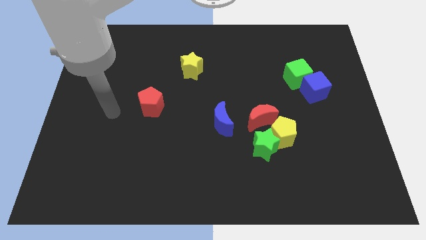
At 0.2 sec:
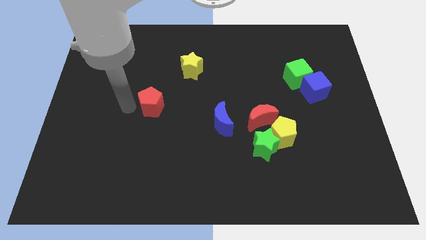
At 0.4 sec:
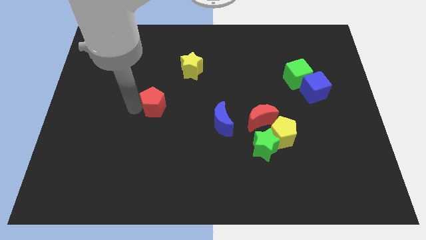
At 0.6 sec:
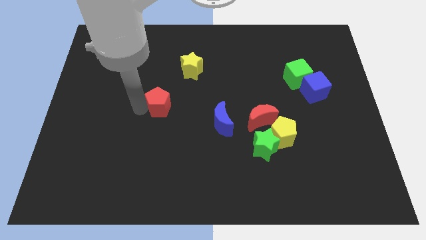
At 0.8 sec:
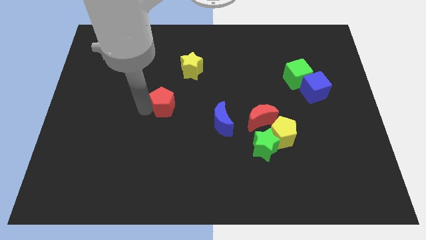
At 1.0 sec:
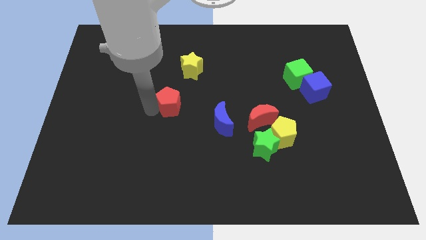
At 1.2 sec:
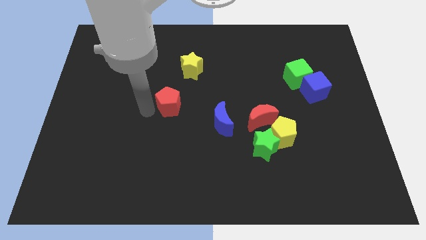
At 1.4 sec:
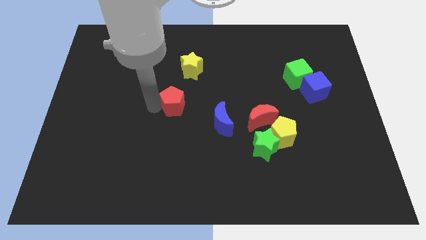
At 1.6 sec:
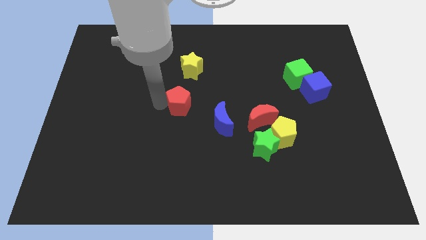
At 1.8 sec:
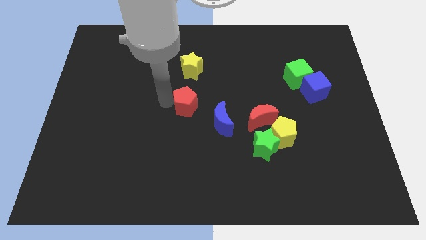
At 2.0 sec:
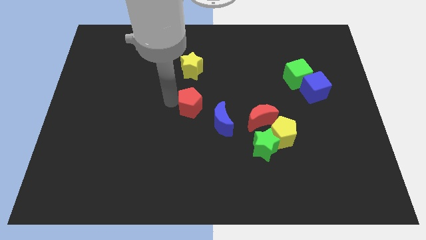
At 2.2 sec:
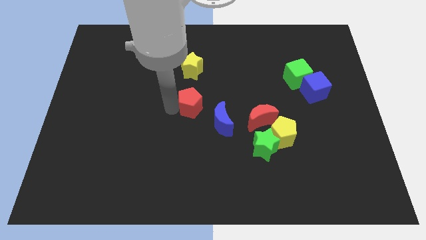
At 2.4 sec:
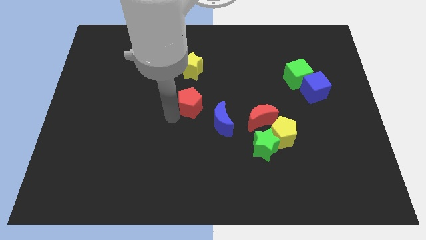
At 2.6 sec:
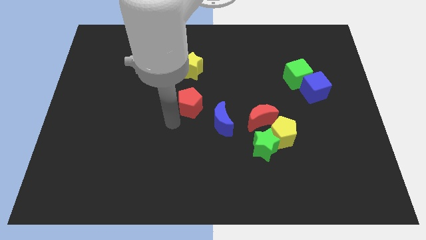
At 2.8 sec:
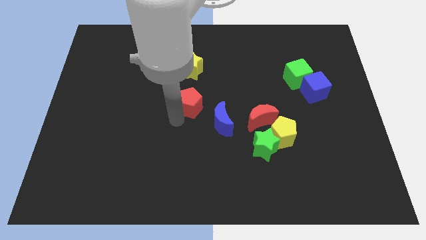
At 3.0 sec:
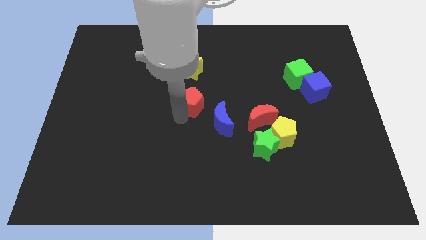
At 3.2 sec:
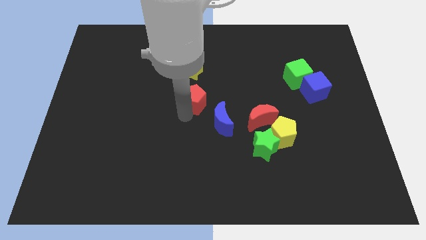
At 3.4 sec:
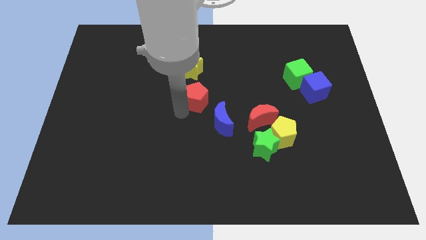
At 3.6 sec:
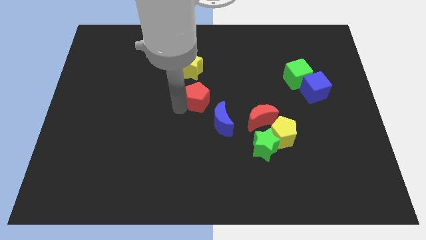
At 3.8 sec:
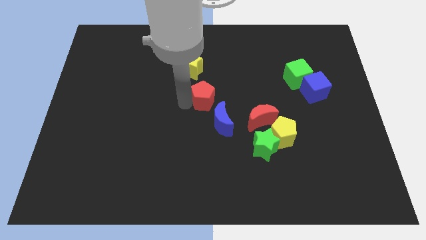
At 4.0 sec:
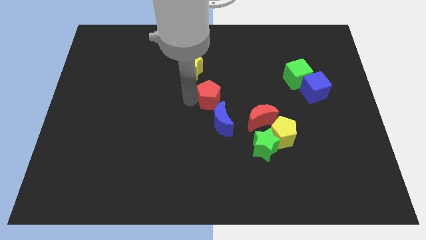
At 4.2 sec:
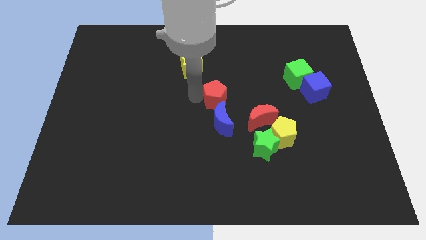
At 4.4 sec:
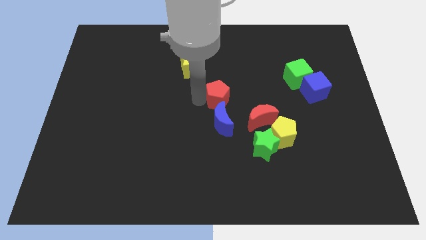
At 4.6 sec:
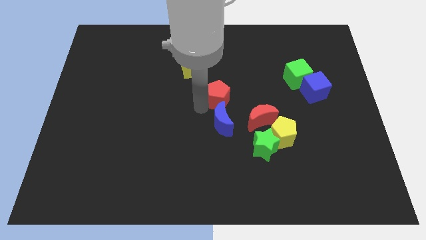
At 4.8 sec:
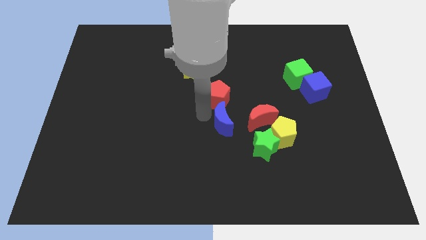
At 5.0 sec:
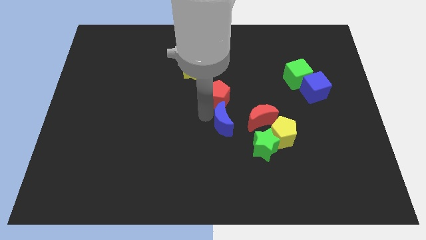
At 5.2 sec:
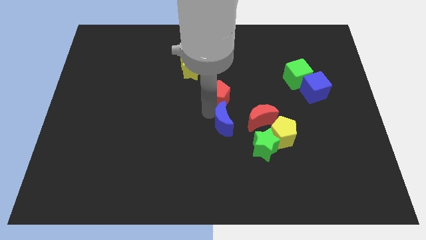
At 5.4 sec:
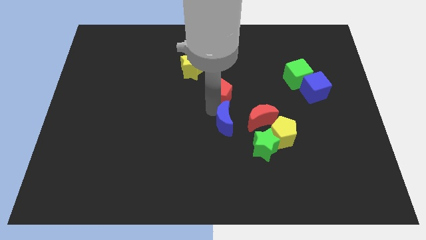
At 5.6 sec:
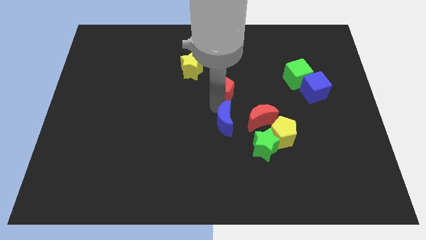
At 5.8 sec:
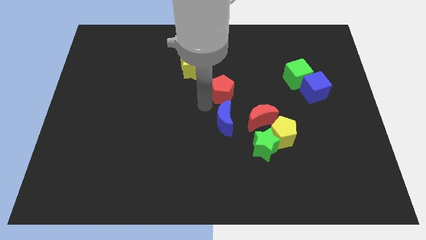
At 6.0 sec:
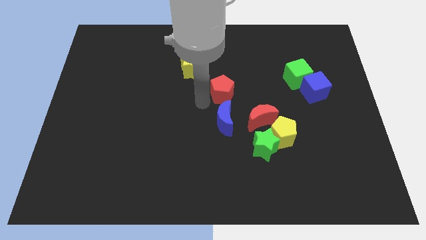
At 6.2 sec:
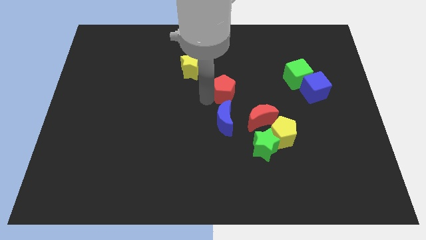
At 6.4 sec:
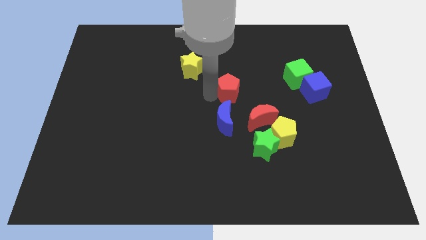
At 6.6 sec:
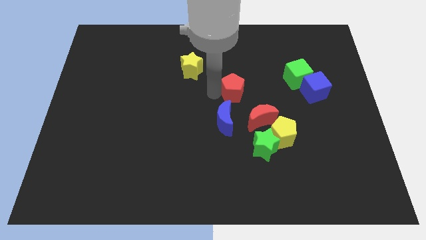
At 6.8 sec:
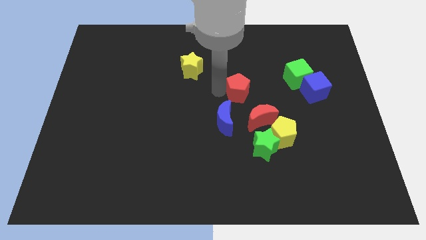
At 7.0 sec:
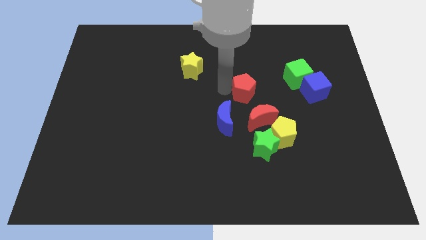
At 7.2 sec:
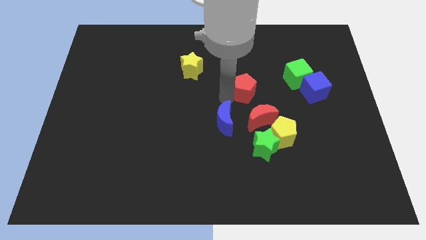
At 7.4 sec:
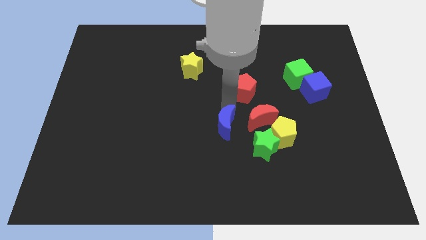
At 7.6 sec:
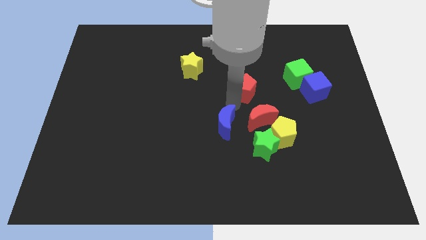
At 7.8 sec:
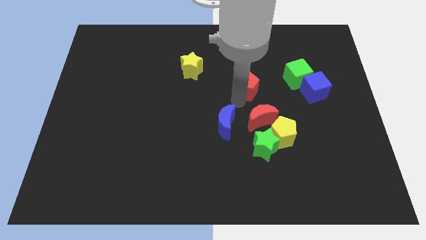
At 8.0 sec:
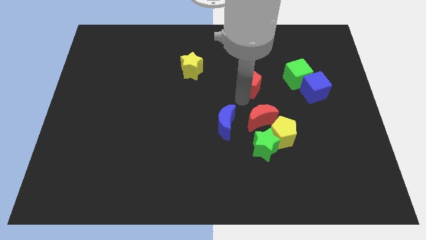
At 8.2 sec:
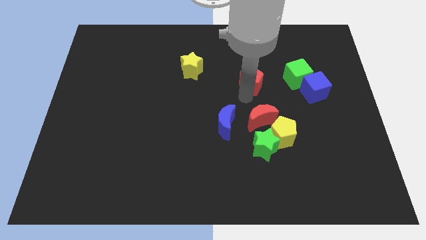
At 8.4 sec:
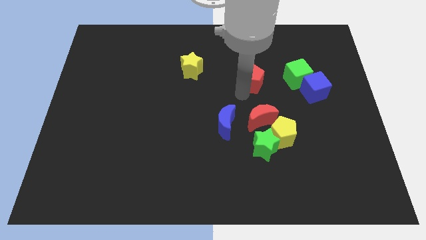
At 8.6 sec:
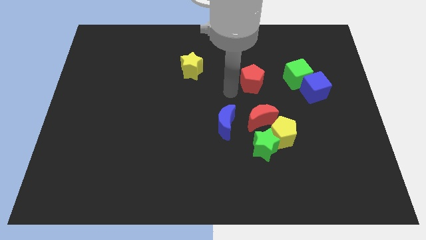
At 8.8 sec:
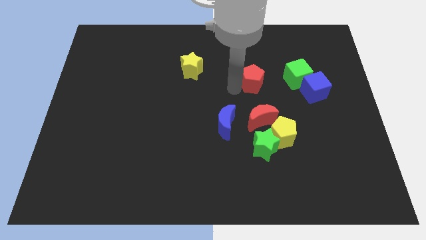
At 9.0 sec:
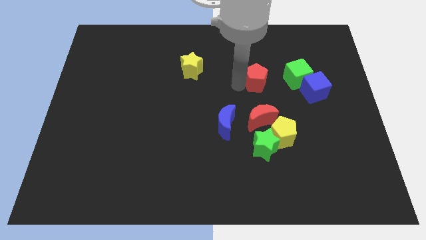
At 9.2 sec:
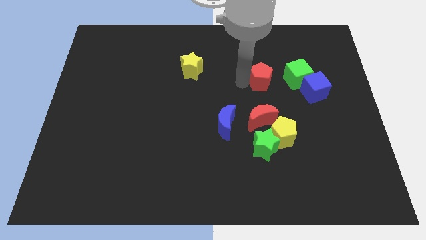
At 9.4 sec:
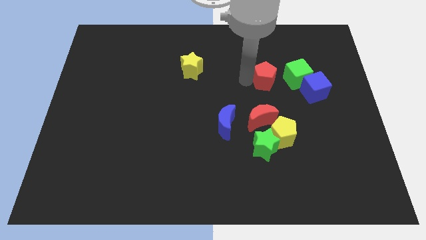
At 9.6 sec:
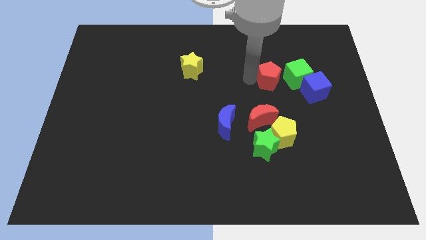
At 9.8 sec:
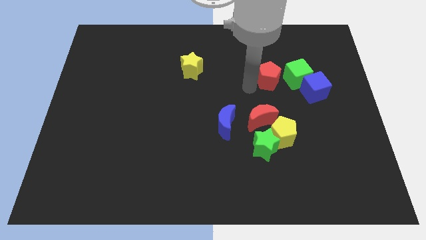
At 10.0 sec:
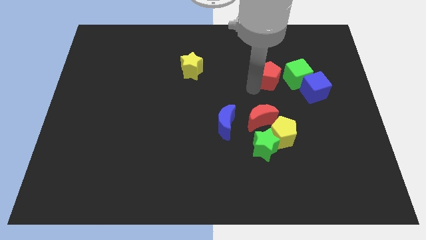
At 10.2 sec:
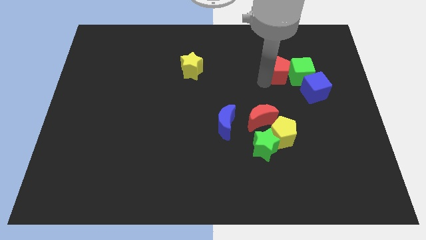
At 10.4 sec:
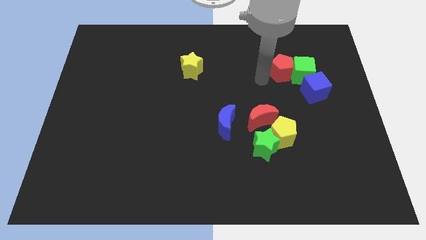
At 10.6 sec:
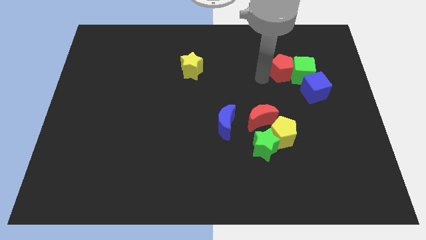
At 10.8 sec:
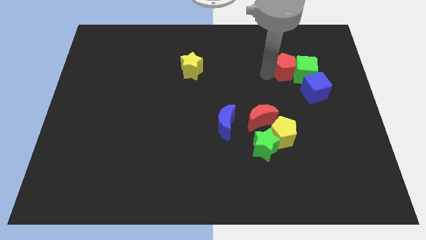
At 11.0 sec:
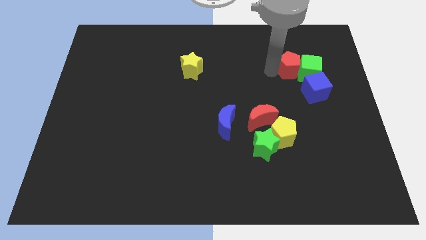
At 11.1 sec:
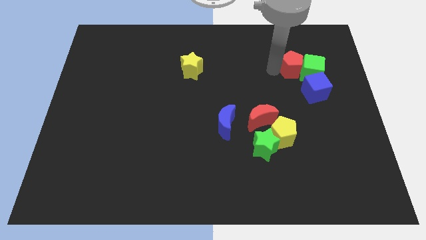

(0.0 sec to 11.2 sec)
move the red pentagon above the blue cube

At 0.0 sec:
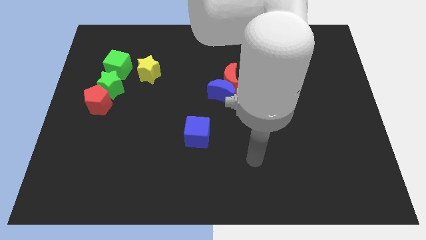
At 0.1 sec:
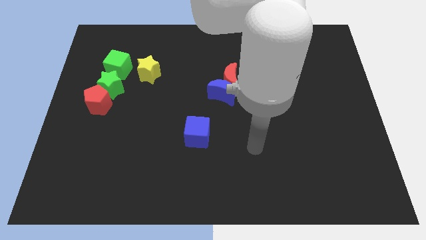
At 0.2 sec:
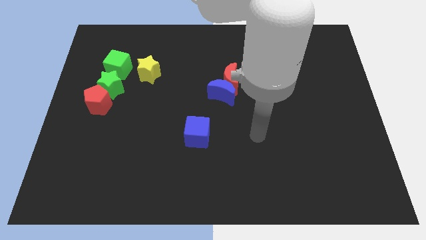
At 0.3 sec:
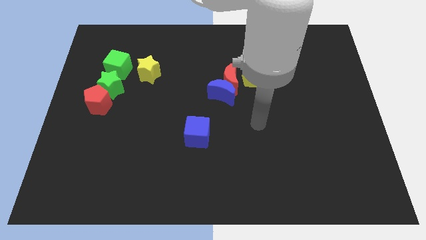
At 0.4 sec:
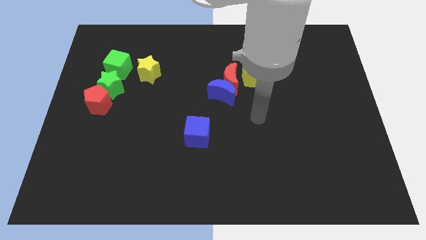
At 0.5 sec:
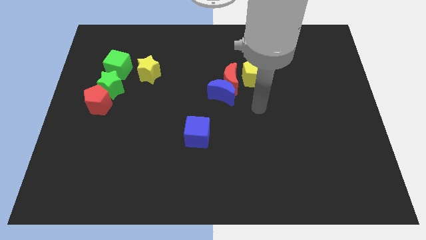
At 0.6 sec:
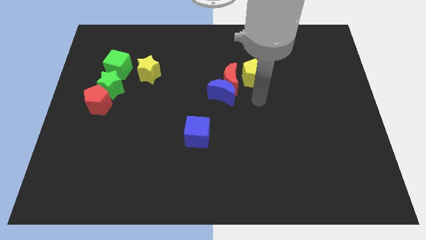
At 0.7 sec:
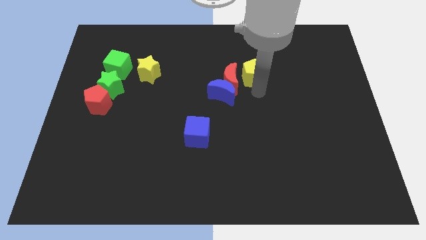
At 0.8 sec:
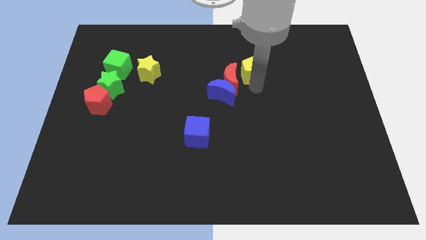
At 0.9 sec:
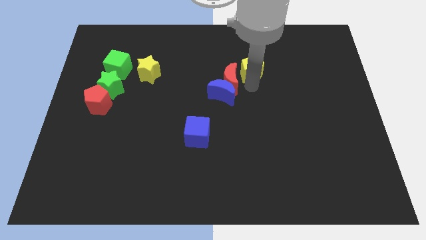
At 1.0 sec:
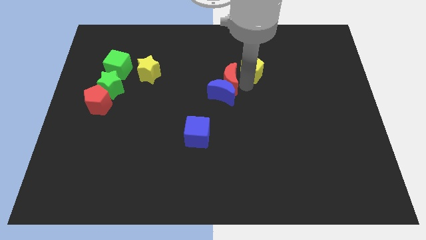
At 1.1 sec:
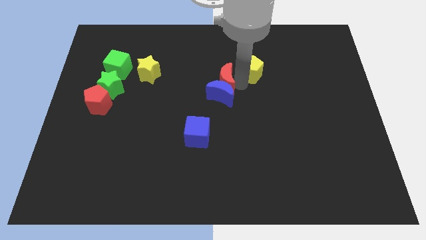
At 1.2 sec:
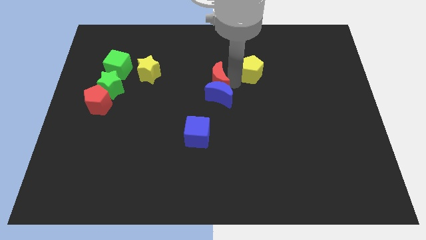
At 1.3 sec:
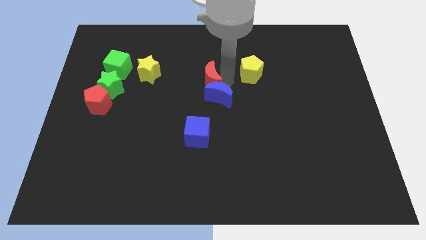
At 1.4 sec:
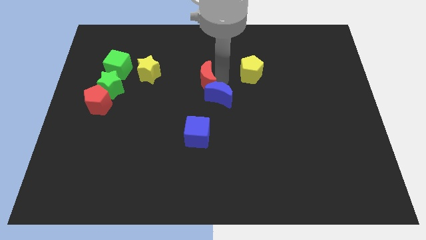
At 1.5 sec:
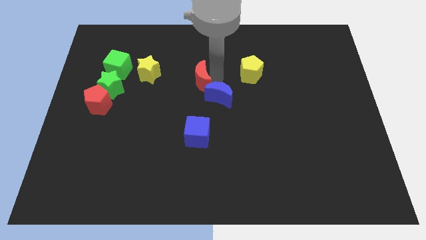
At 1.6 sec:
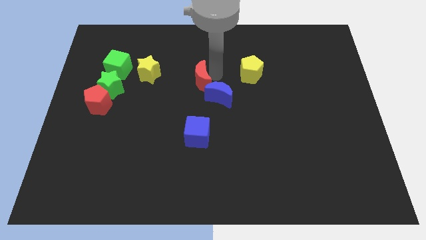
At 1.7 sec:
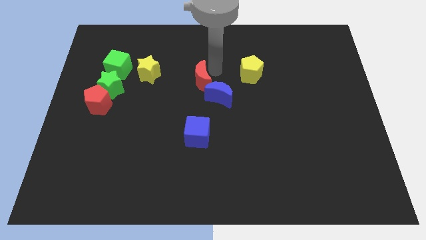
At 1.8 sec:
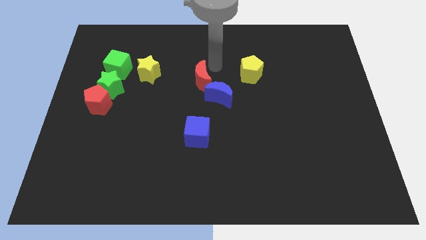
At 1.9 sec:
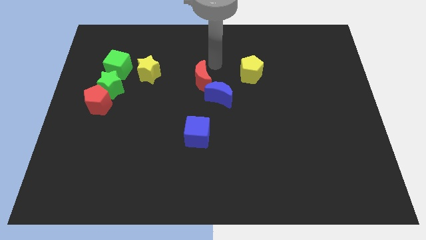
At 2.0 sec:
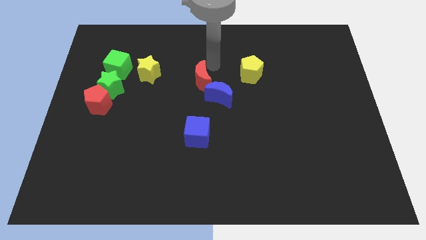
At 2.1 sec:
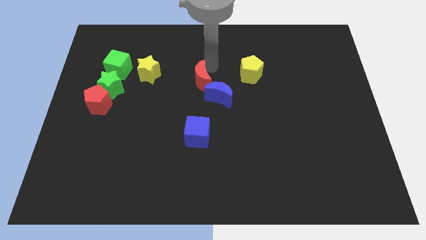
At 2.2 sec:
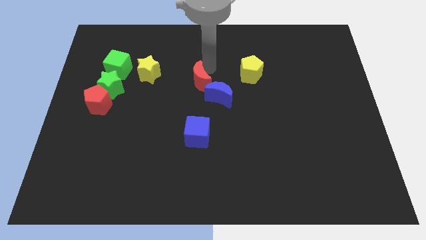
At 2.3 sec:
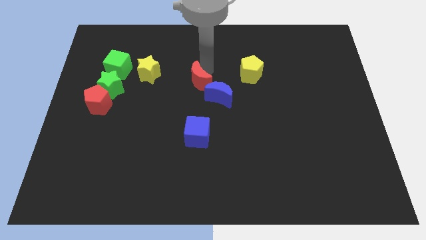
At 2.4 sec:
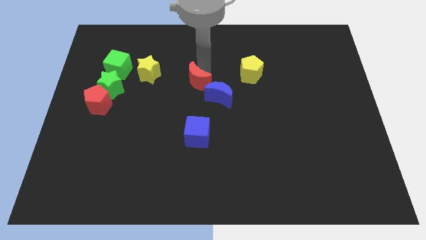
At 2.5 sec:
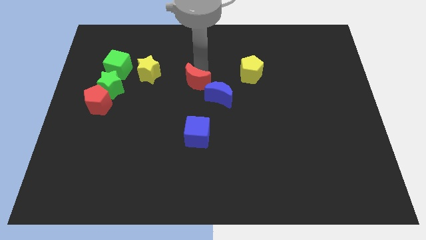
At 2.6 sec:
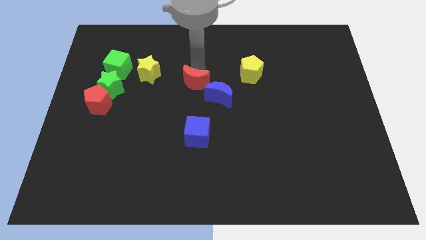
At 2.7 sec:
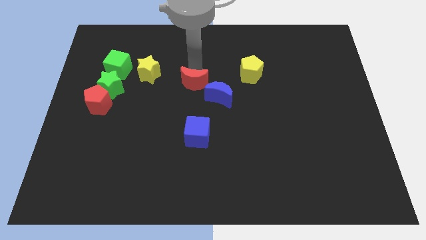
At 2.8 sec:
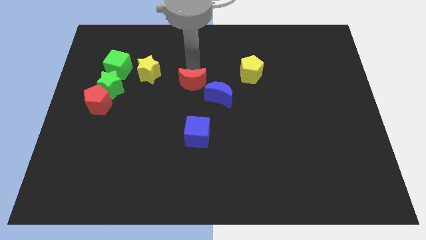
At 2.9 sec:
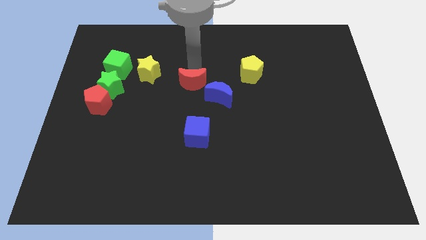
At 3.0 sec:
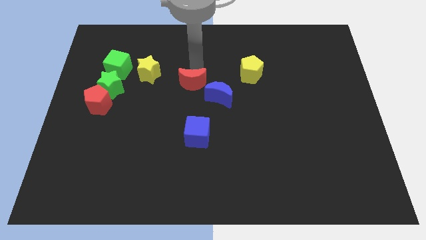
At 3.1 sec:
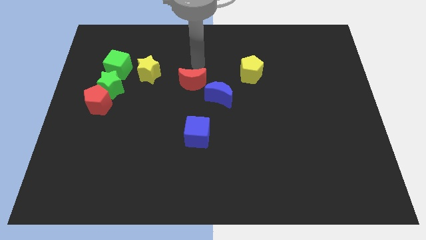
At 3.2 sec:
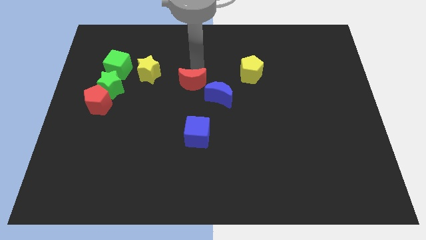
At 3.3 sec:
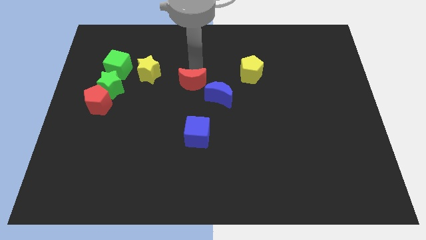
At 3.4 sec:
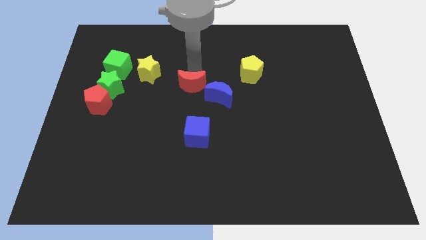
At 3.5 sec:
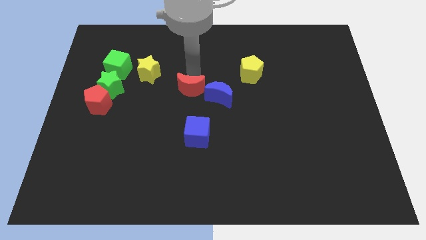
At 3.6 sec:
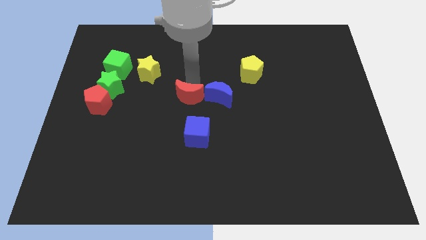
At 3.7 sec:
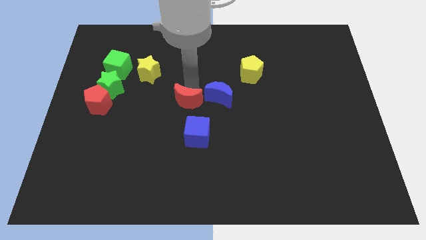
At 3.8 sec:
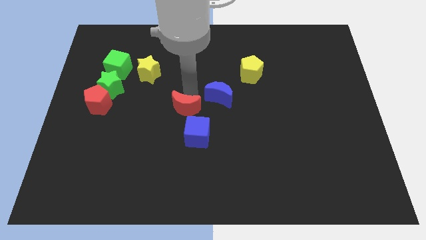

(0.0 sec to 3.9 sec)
put the red moon to the top left of the blue cube
